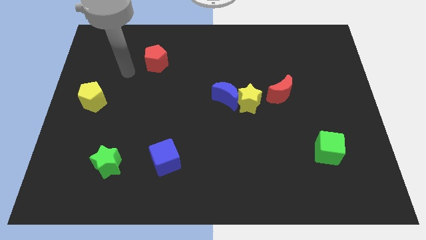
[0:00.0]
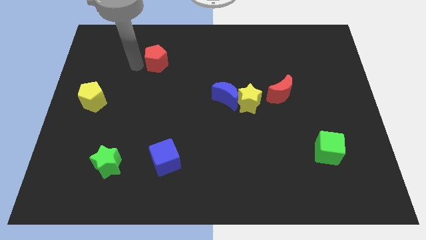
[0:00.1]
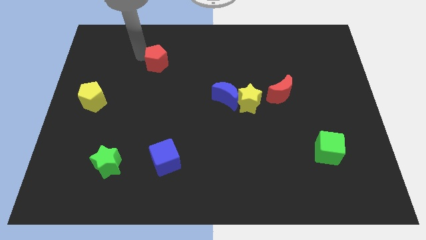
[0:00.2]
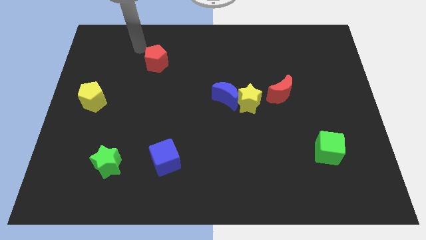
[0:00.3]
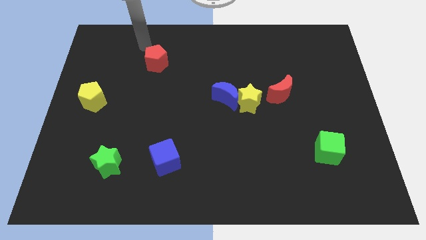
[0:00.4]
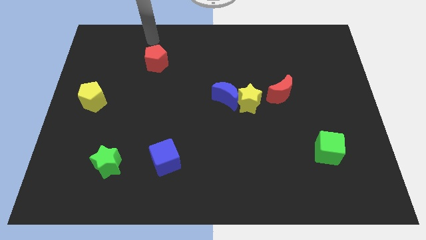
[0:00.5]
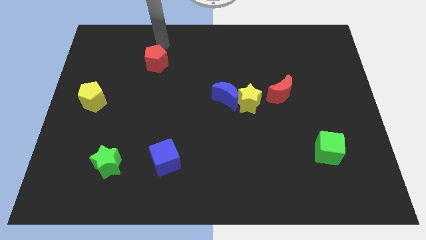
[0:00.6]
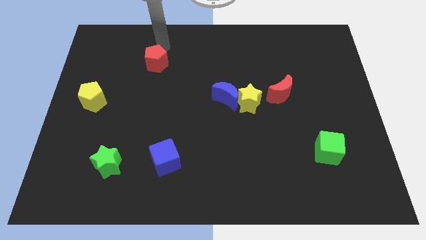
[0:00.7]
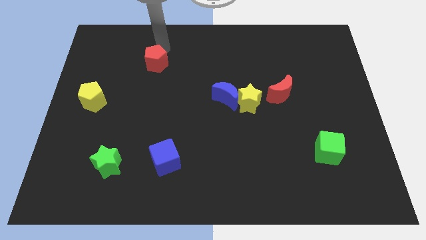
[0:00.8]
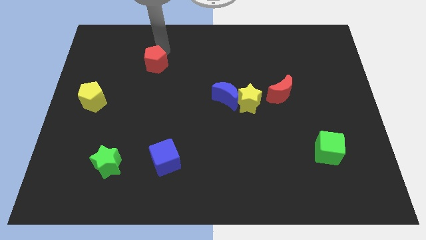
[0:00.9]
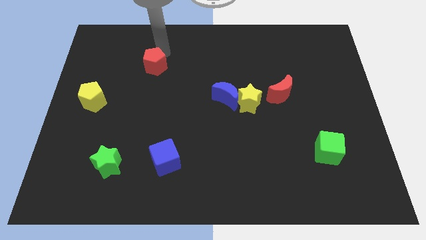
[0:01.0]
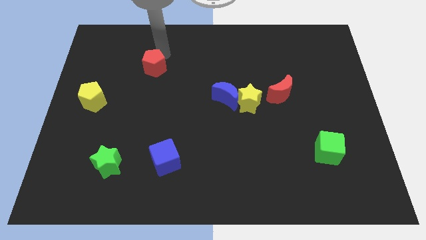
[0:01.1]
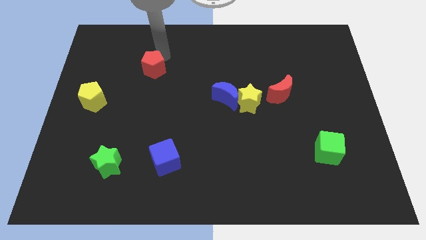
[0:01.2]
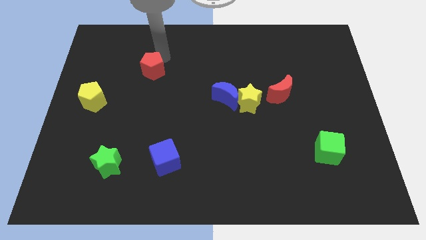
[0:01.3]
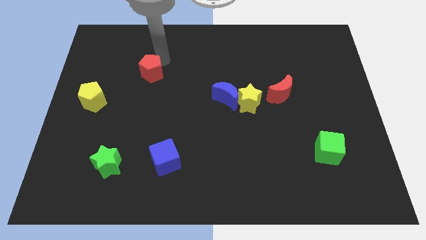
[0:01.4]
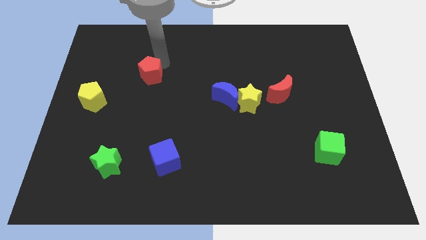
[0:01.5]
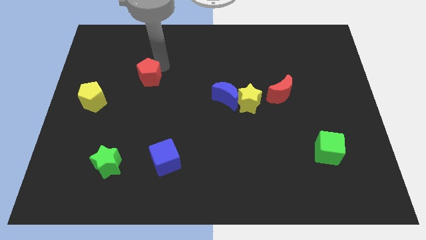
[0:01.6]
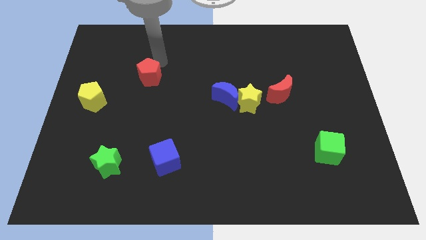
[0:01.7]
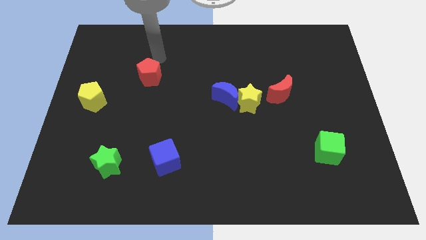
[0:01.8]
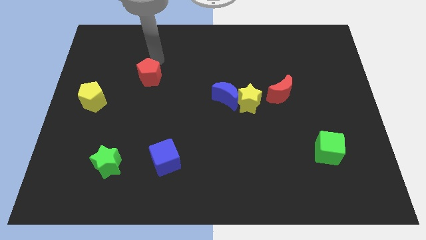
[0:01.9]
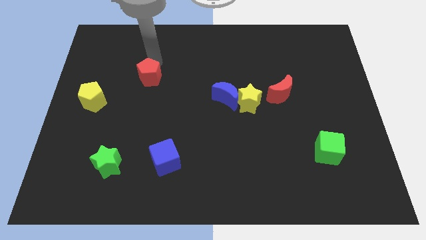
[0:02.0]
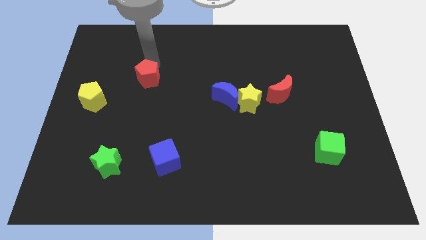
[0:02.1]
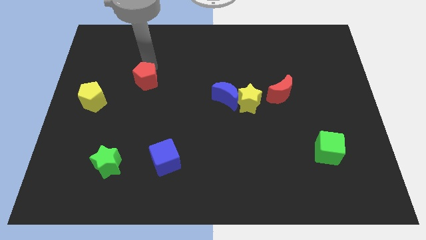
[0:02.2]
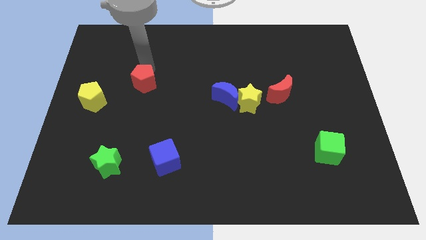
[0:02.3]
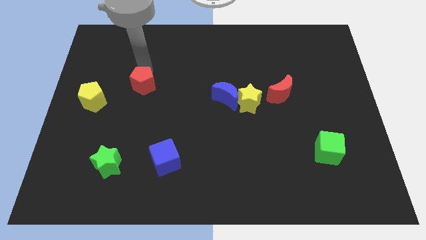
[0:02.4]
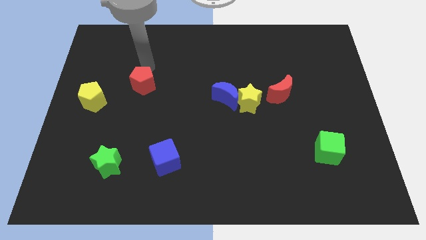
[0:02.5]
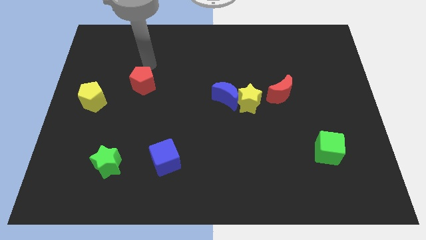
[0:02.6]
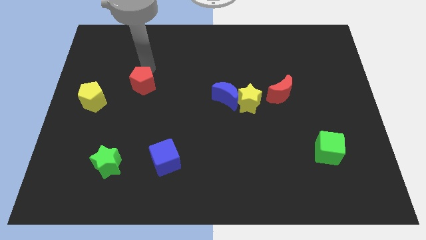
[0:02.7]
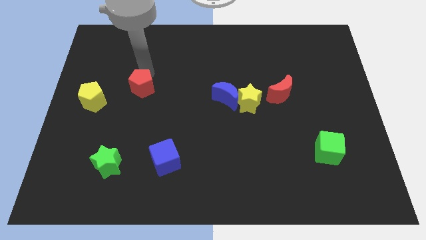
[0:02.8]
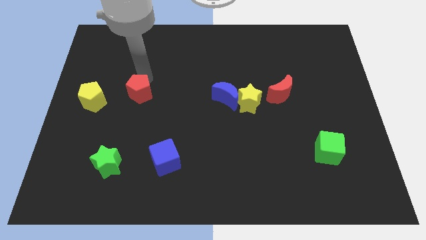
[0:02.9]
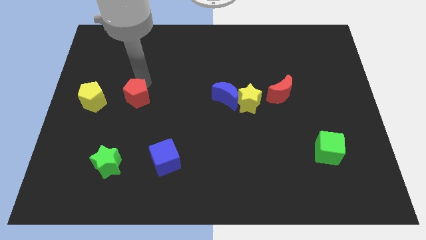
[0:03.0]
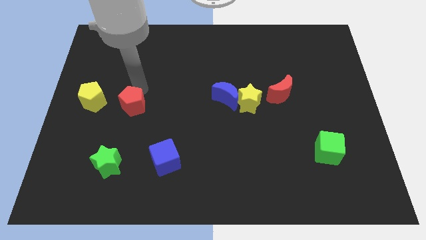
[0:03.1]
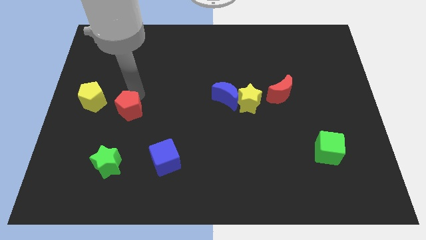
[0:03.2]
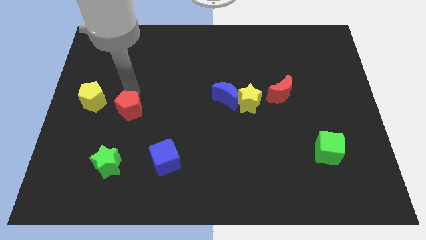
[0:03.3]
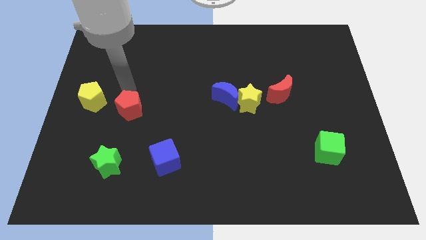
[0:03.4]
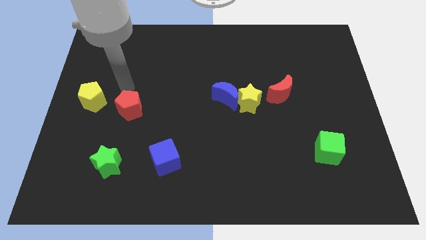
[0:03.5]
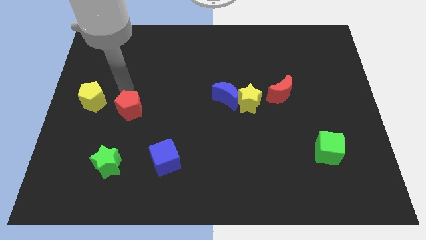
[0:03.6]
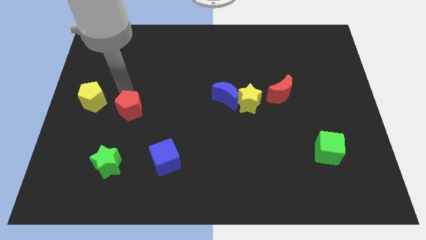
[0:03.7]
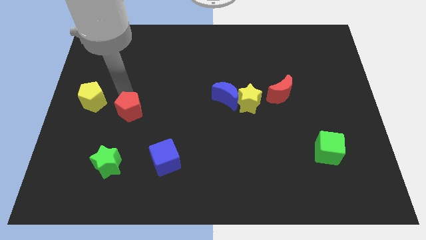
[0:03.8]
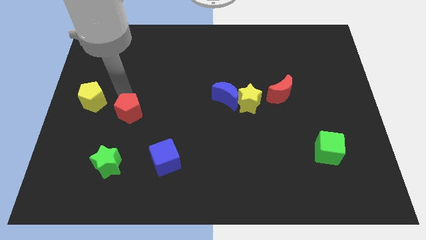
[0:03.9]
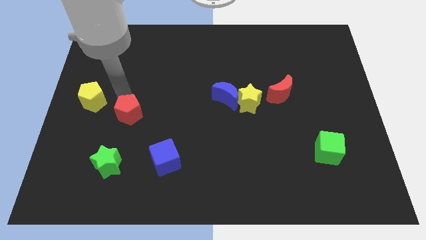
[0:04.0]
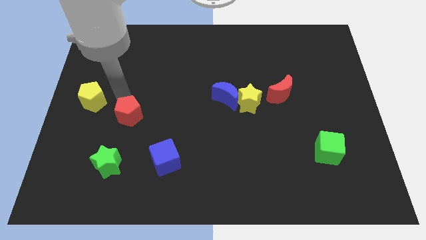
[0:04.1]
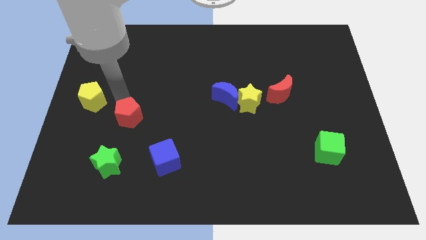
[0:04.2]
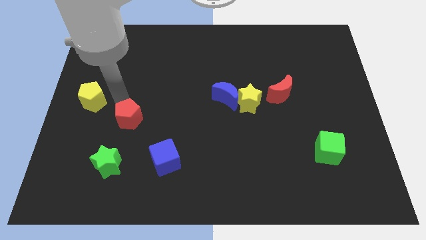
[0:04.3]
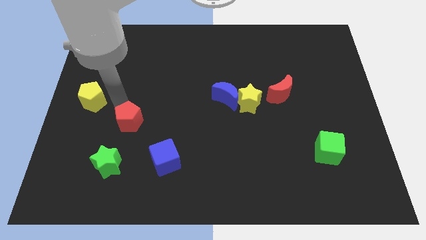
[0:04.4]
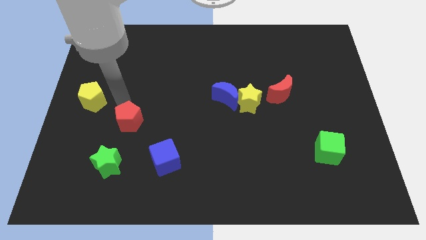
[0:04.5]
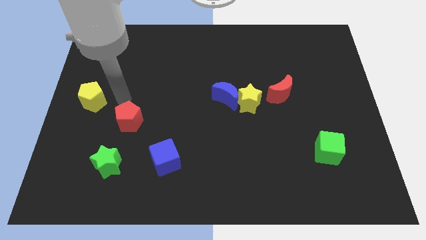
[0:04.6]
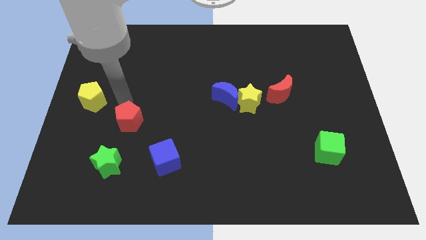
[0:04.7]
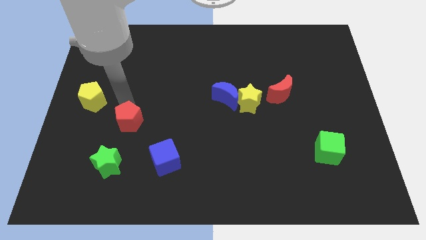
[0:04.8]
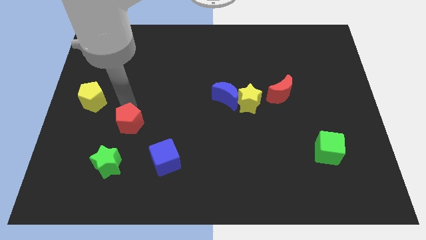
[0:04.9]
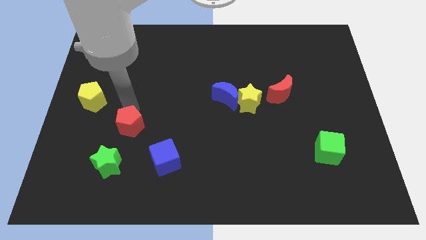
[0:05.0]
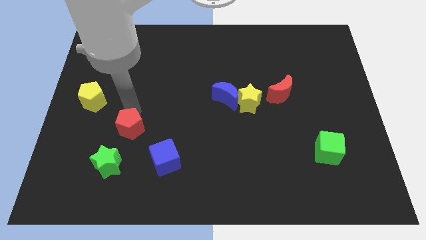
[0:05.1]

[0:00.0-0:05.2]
slide the red pentagon down

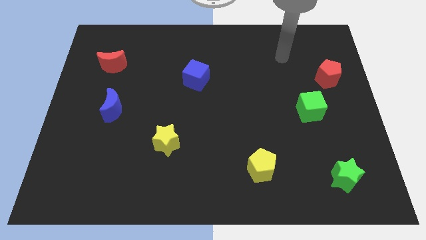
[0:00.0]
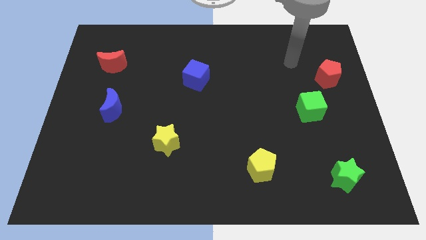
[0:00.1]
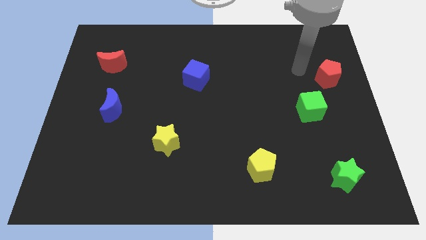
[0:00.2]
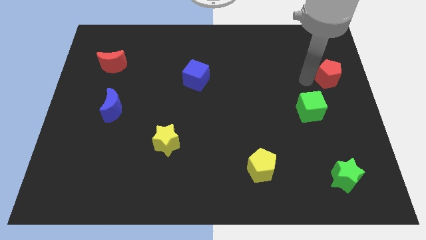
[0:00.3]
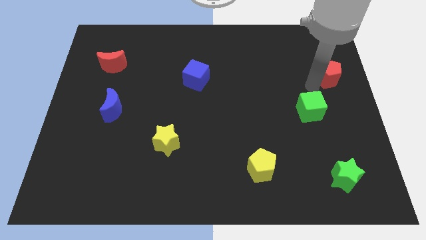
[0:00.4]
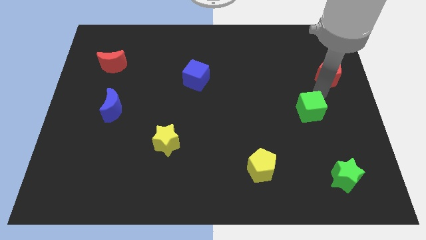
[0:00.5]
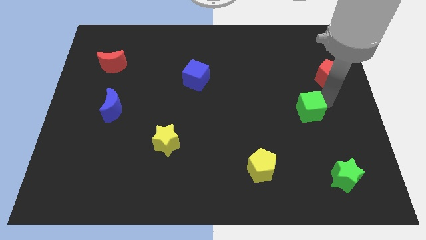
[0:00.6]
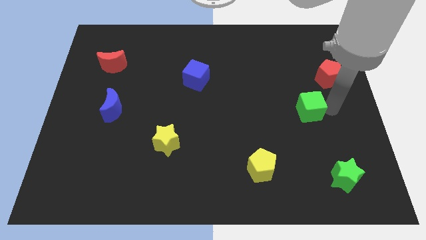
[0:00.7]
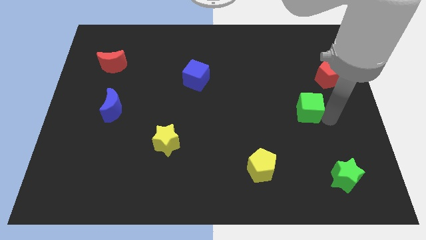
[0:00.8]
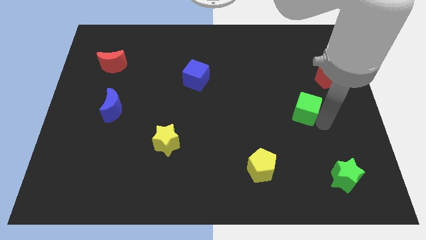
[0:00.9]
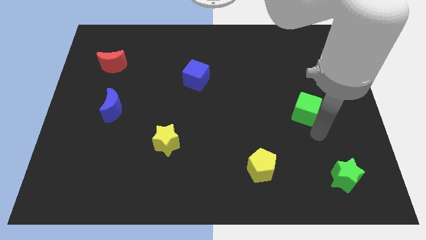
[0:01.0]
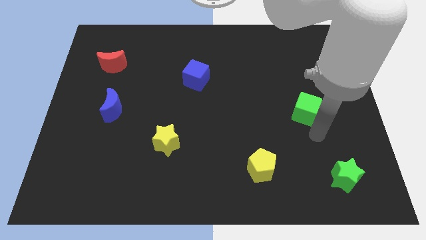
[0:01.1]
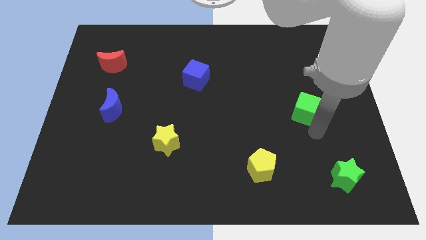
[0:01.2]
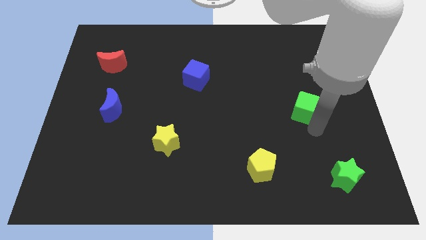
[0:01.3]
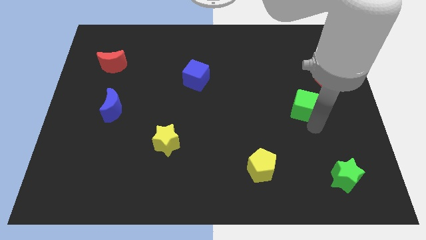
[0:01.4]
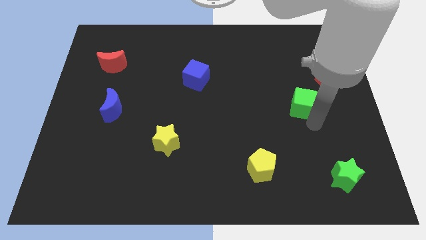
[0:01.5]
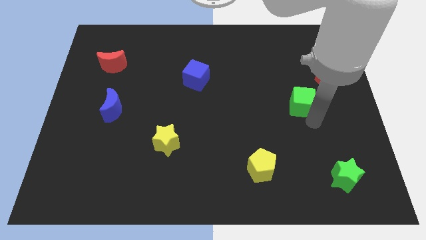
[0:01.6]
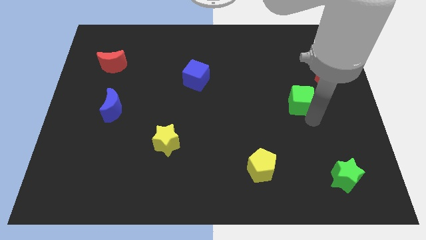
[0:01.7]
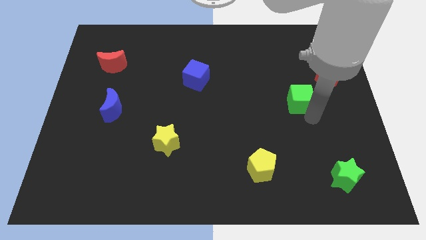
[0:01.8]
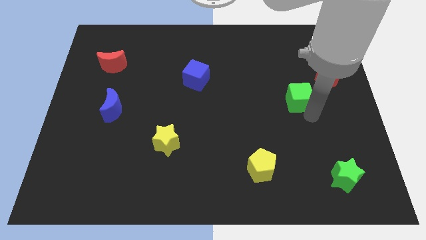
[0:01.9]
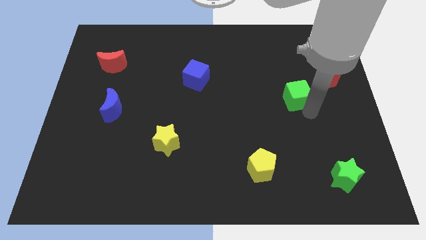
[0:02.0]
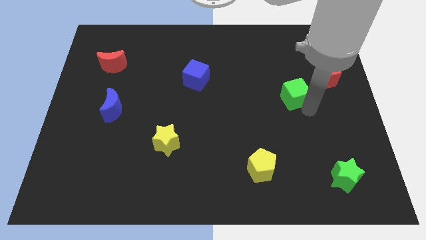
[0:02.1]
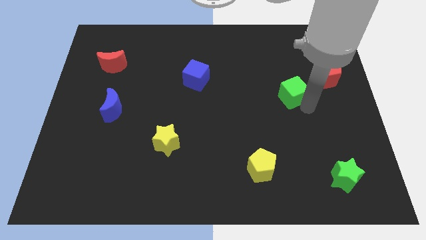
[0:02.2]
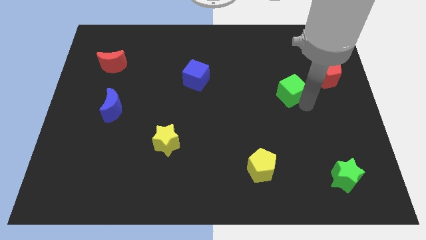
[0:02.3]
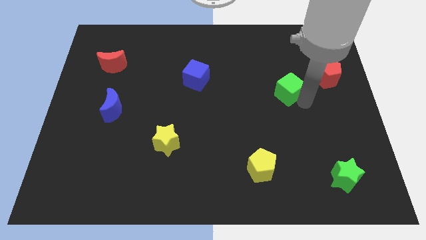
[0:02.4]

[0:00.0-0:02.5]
move the green cube upwards and left a little bit

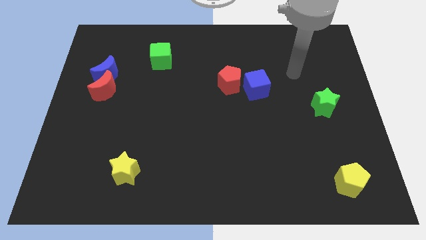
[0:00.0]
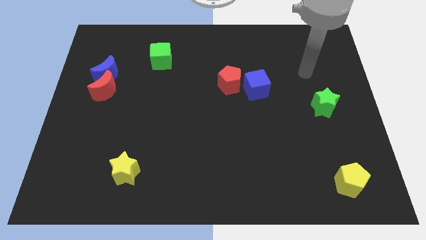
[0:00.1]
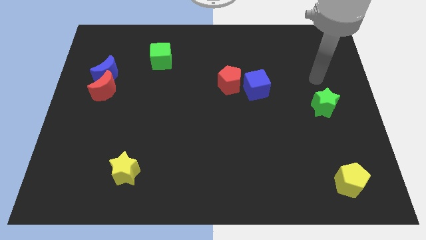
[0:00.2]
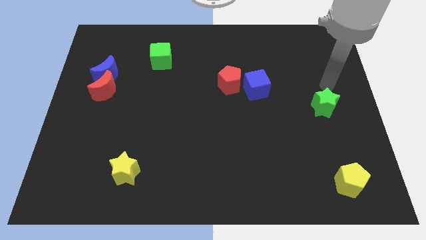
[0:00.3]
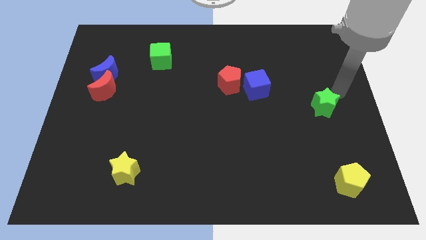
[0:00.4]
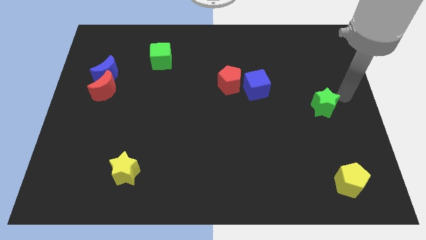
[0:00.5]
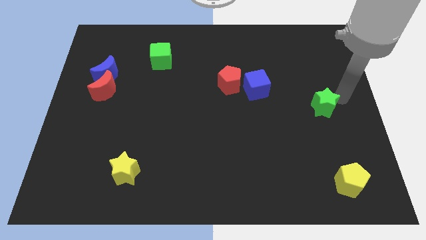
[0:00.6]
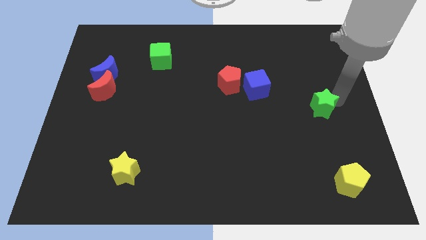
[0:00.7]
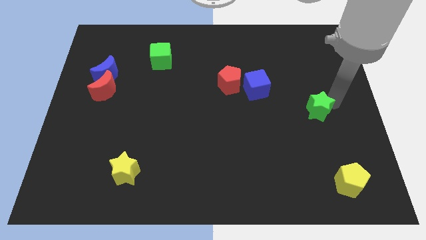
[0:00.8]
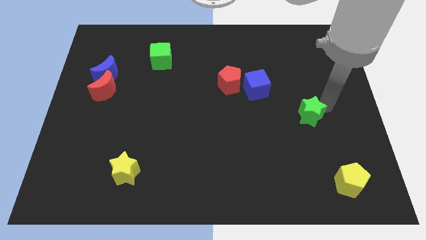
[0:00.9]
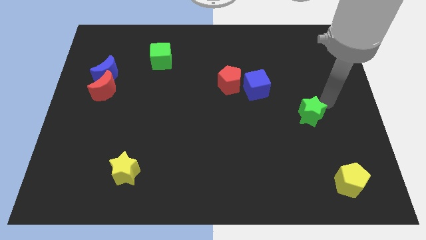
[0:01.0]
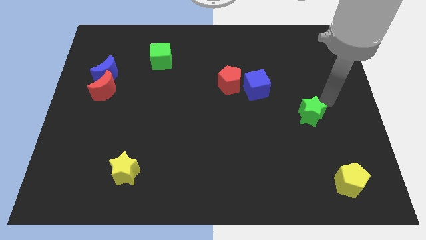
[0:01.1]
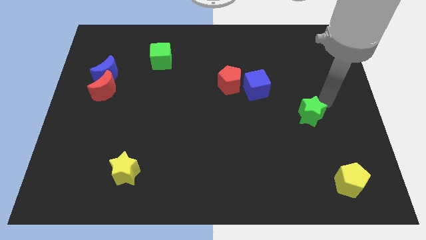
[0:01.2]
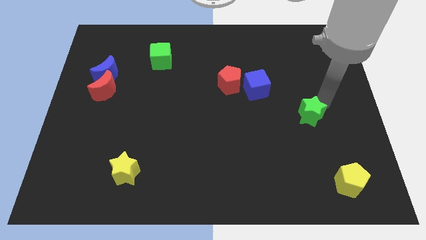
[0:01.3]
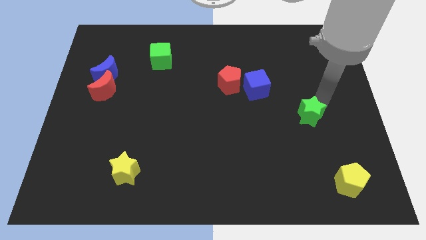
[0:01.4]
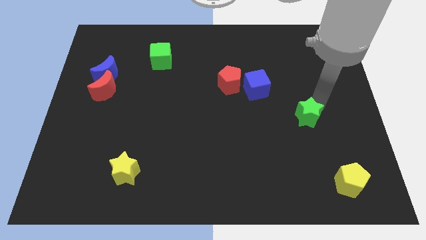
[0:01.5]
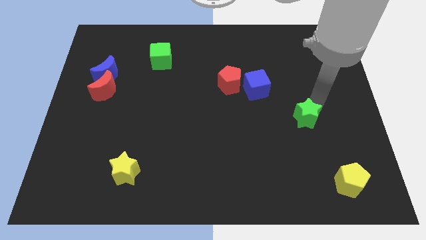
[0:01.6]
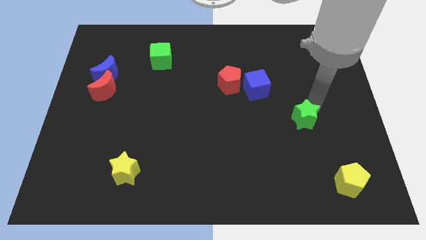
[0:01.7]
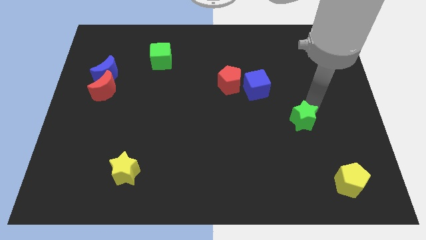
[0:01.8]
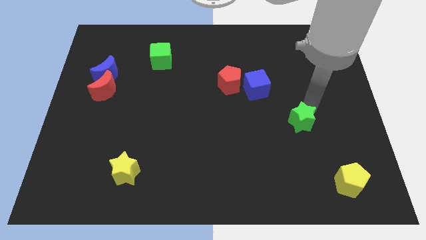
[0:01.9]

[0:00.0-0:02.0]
move the green star slightly downwards and left
